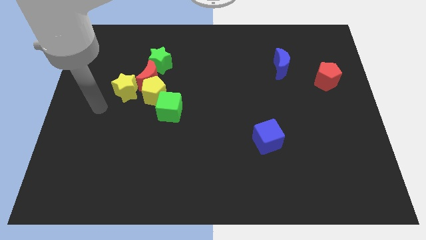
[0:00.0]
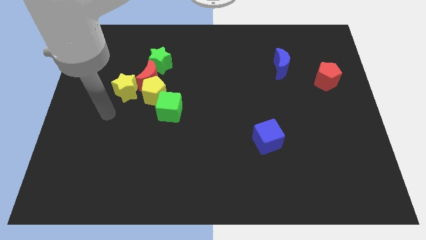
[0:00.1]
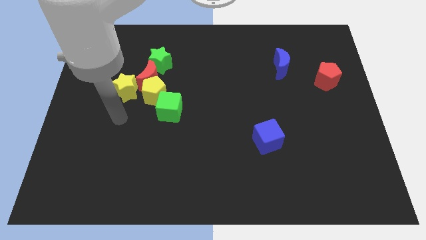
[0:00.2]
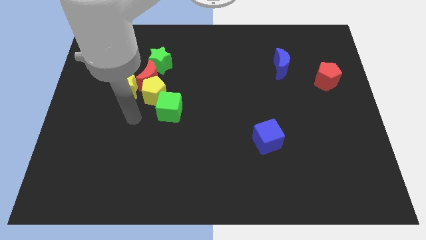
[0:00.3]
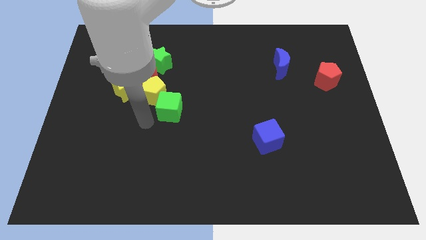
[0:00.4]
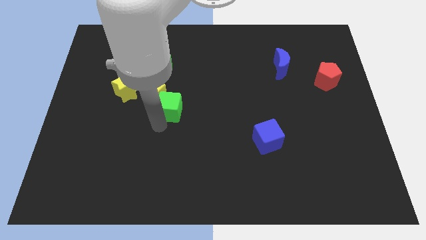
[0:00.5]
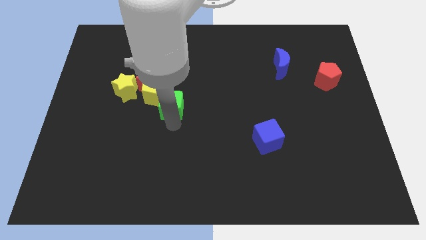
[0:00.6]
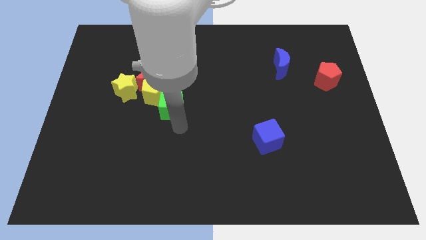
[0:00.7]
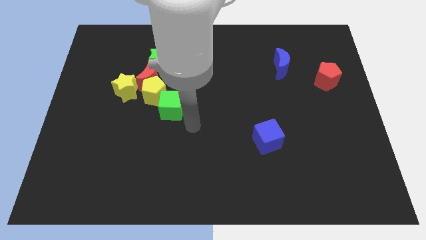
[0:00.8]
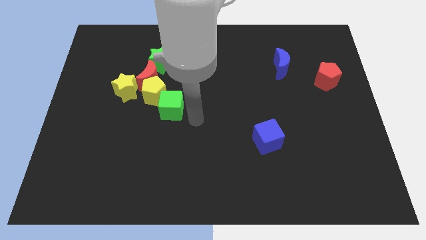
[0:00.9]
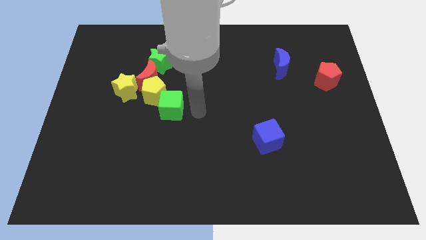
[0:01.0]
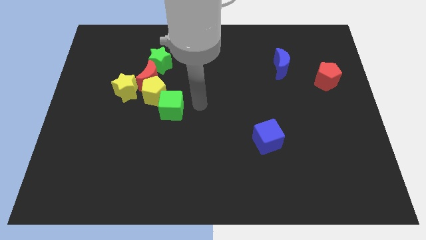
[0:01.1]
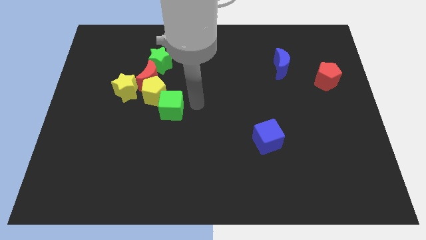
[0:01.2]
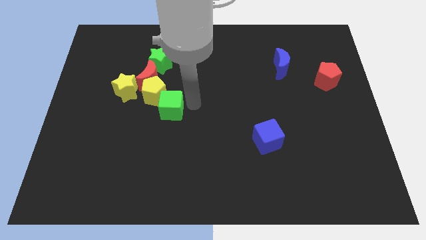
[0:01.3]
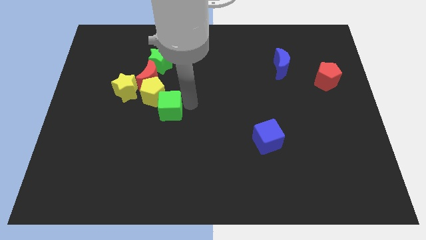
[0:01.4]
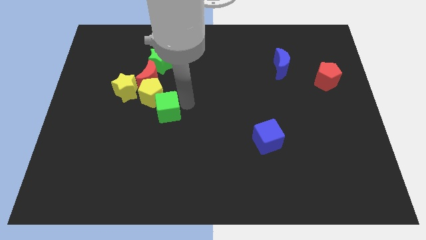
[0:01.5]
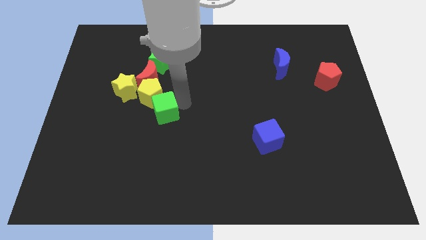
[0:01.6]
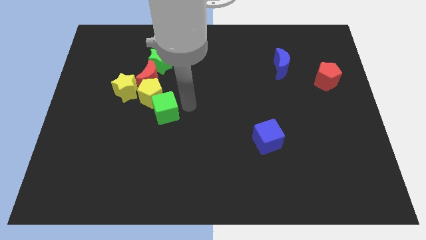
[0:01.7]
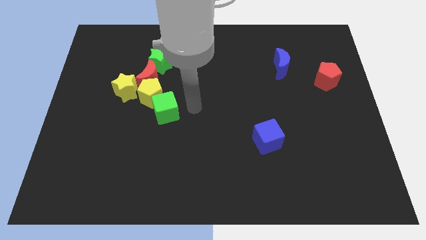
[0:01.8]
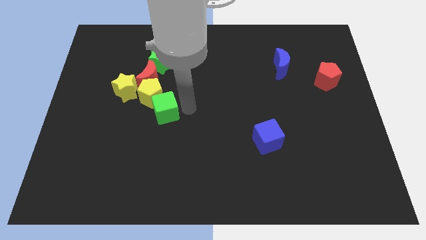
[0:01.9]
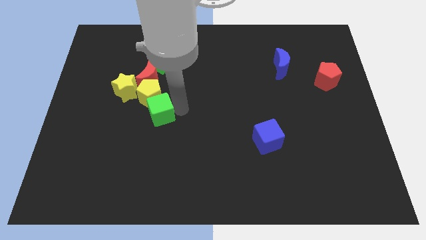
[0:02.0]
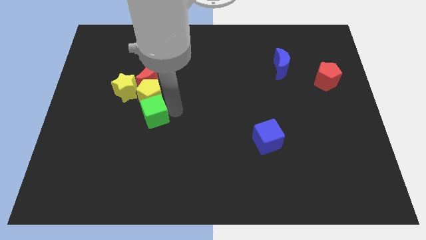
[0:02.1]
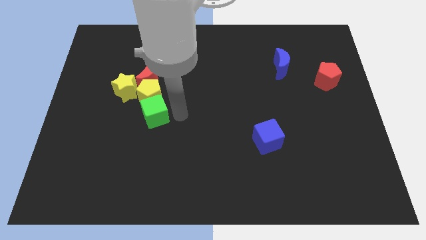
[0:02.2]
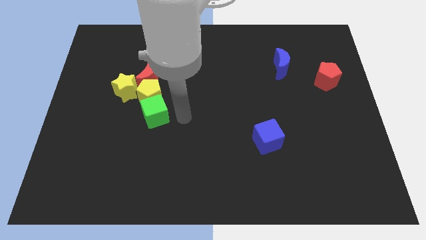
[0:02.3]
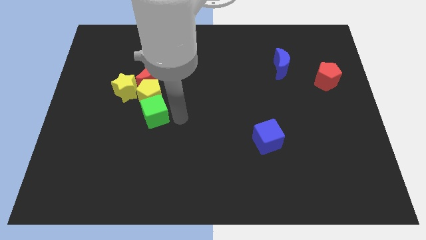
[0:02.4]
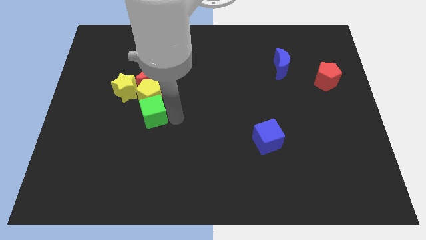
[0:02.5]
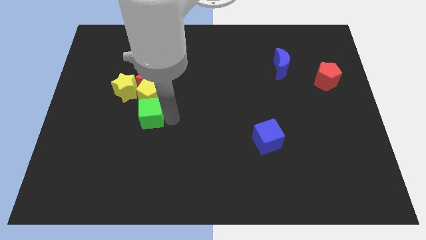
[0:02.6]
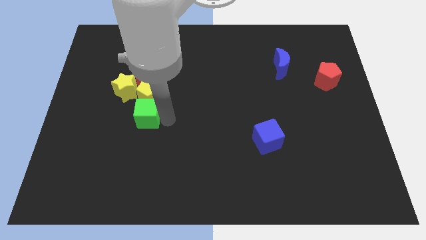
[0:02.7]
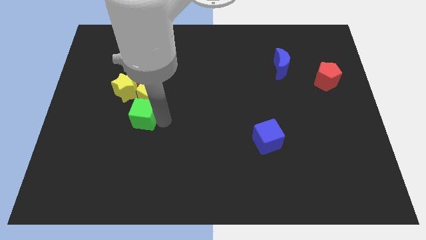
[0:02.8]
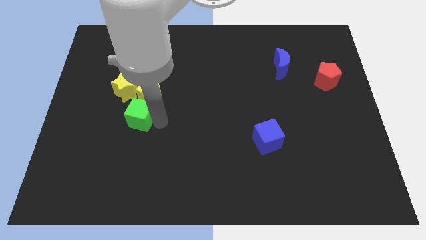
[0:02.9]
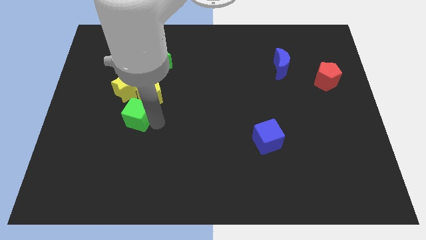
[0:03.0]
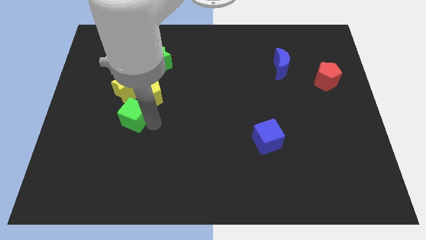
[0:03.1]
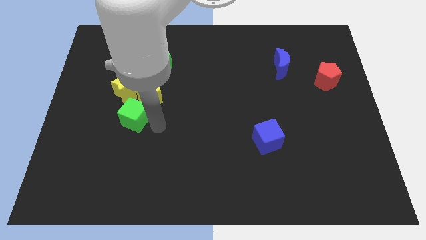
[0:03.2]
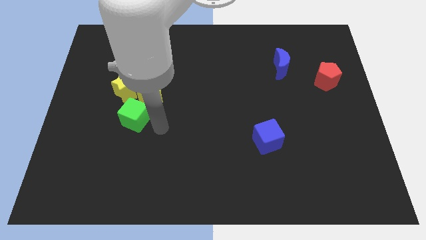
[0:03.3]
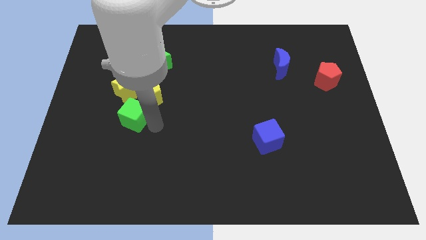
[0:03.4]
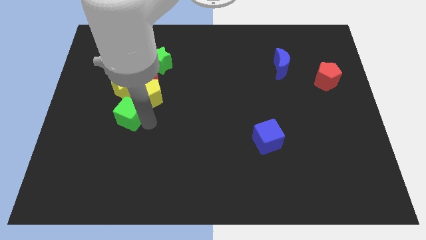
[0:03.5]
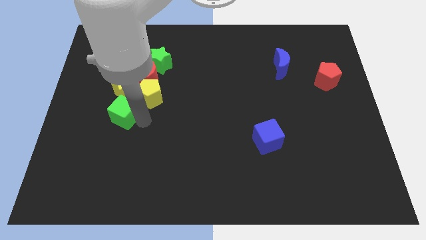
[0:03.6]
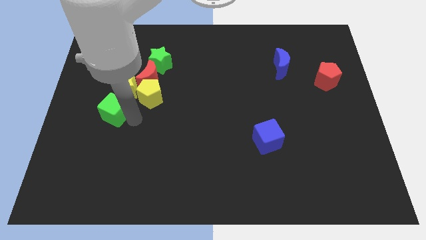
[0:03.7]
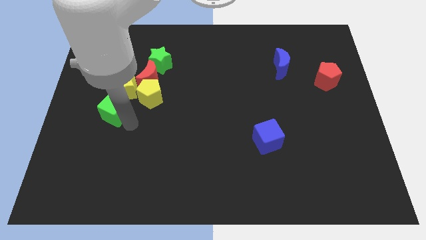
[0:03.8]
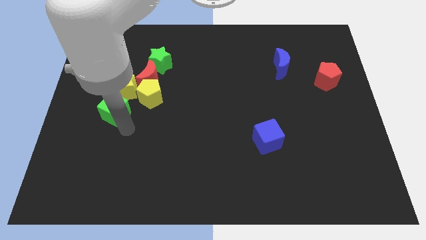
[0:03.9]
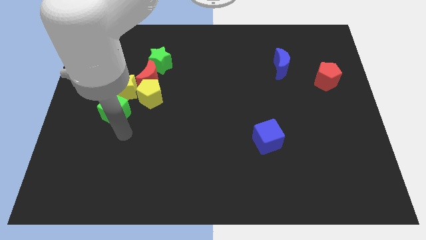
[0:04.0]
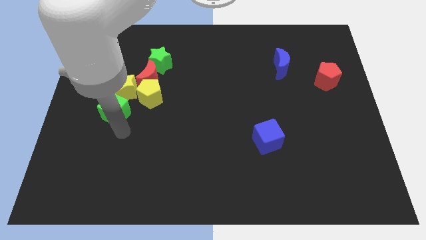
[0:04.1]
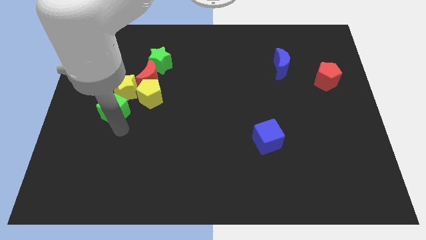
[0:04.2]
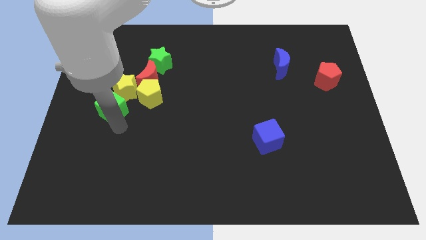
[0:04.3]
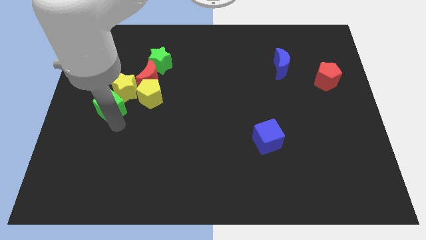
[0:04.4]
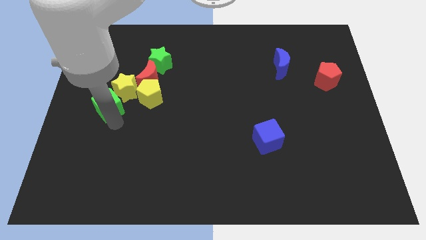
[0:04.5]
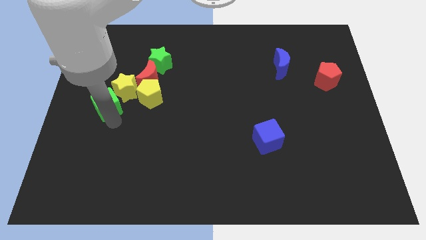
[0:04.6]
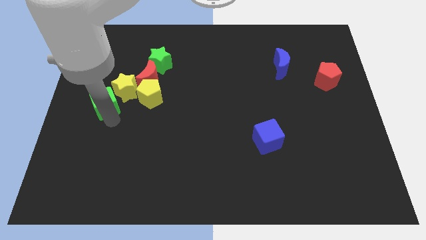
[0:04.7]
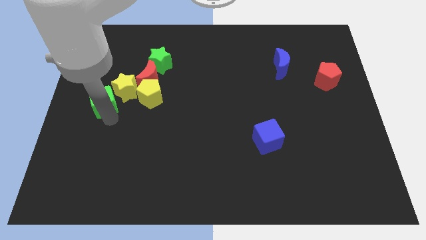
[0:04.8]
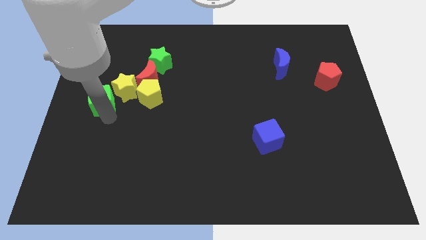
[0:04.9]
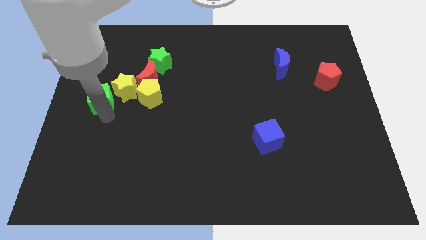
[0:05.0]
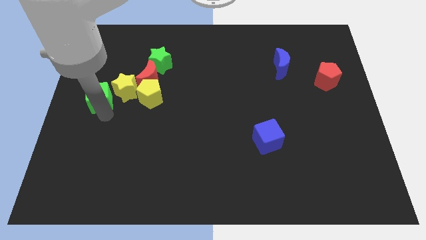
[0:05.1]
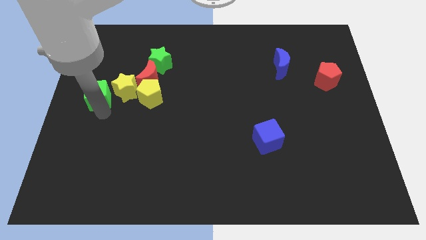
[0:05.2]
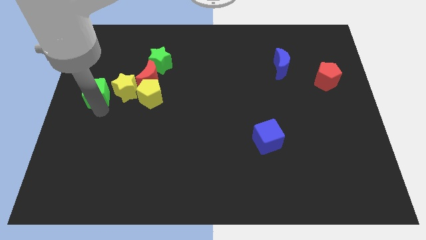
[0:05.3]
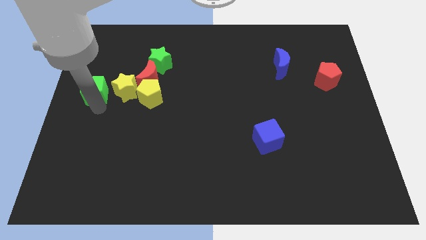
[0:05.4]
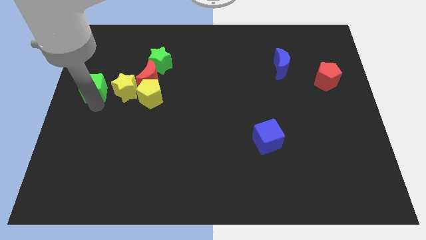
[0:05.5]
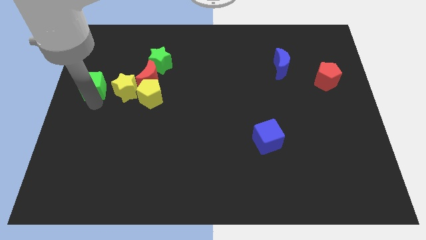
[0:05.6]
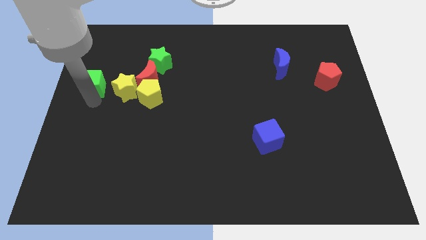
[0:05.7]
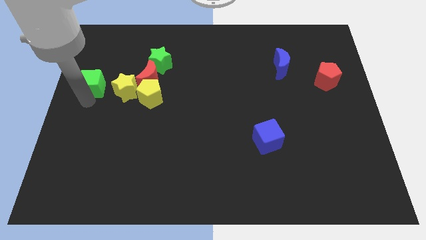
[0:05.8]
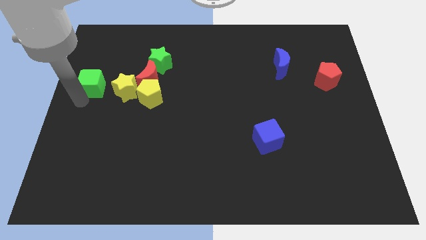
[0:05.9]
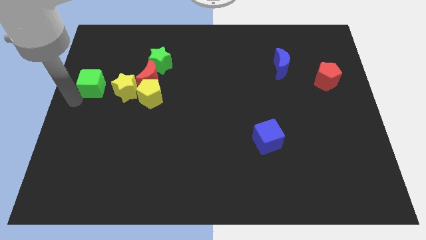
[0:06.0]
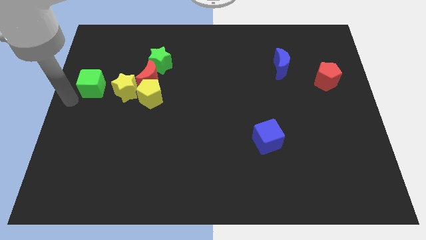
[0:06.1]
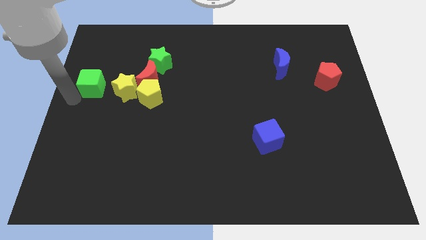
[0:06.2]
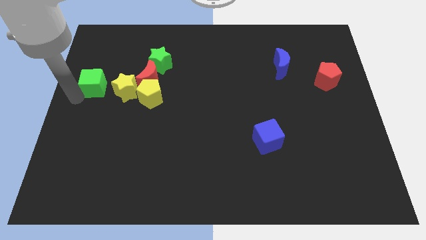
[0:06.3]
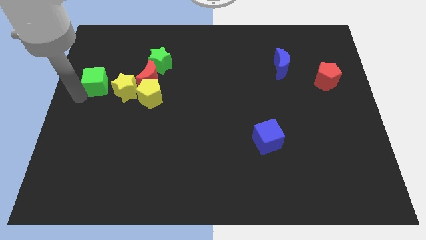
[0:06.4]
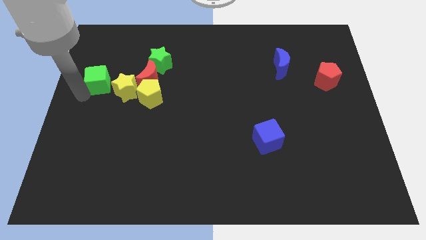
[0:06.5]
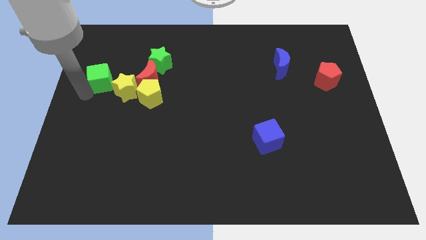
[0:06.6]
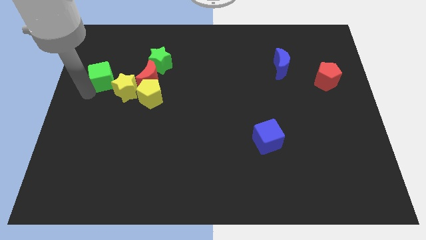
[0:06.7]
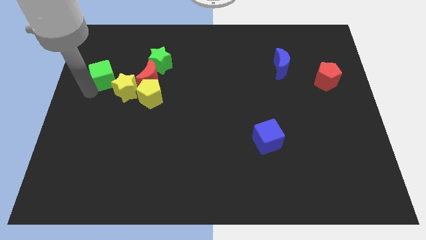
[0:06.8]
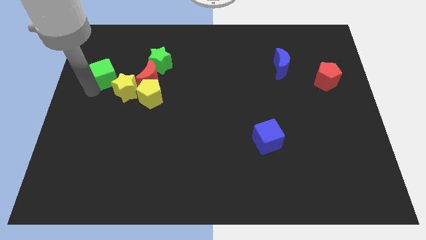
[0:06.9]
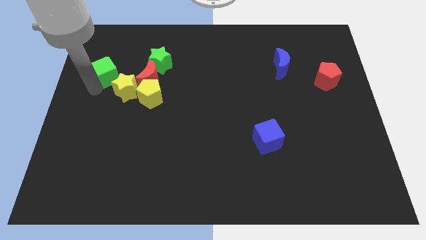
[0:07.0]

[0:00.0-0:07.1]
move the green cube just left of the green star
